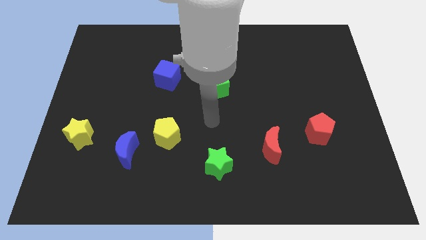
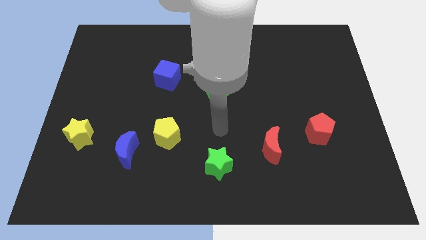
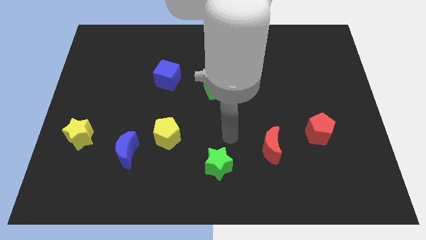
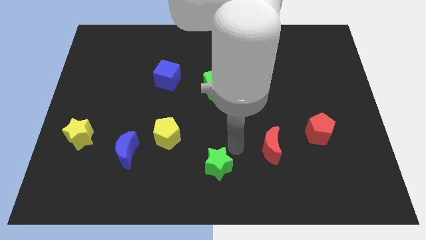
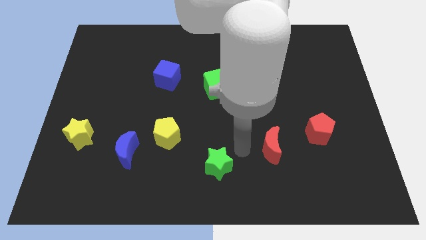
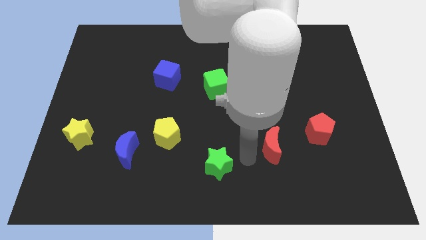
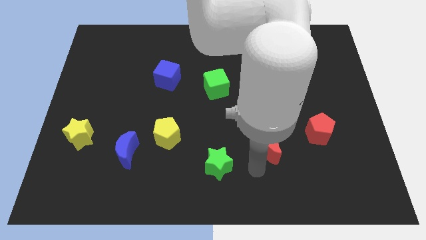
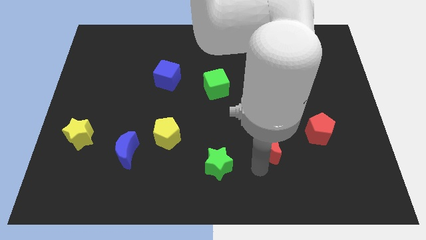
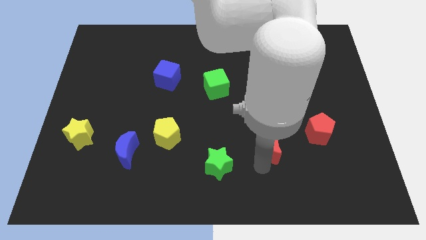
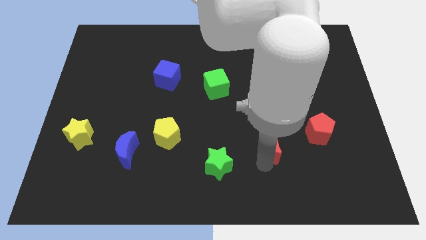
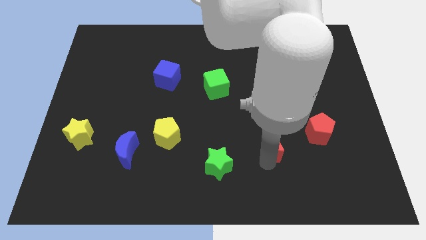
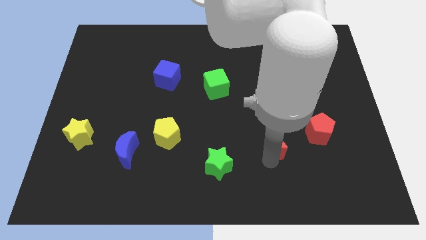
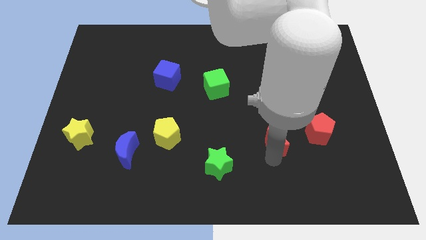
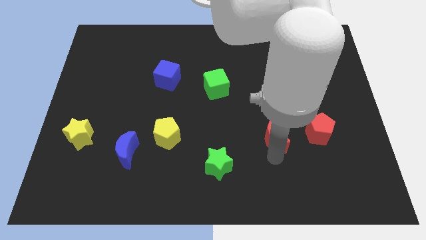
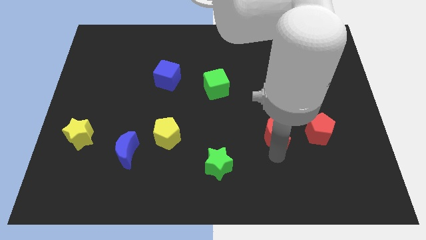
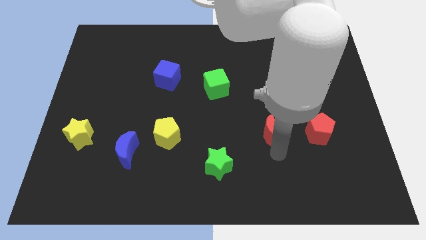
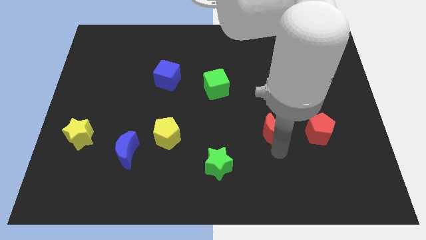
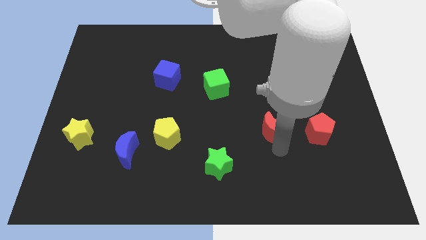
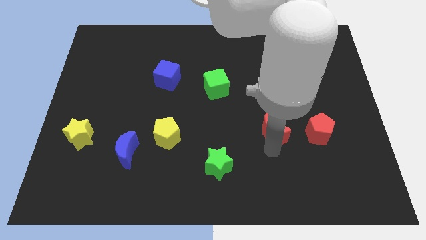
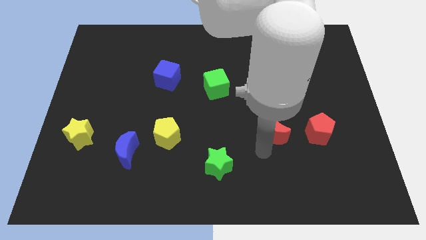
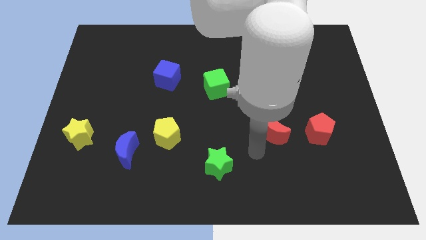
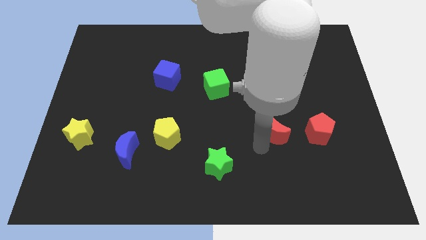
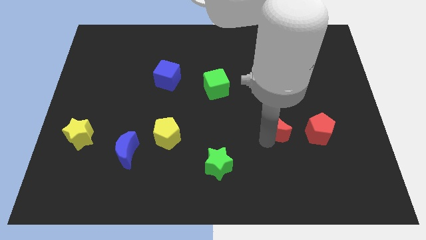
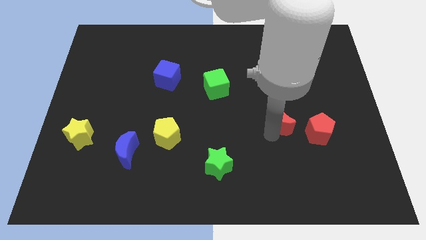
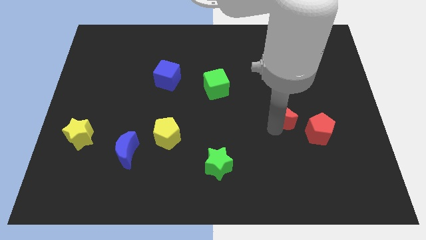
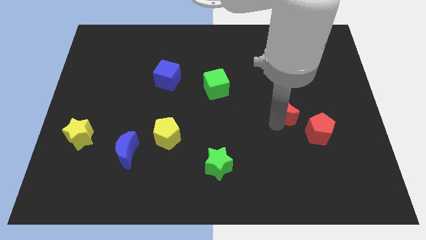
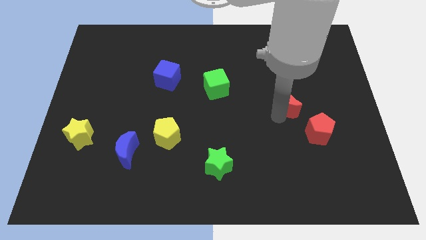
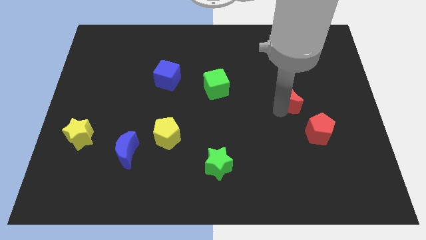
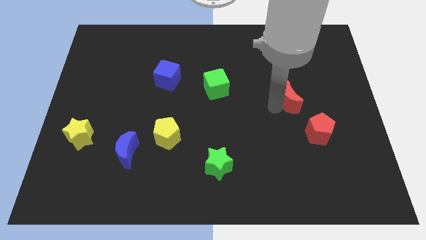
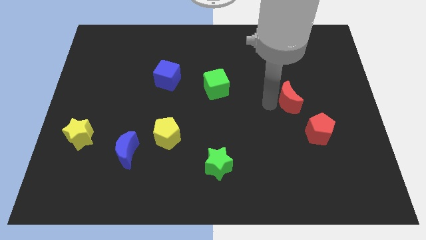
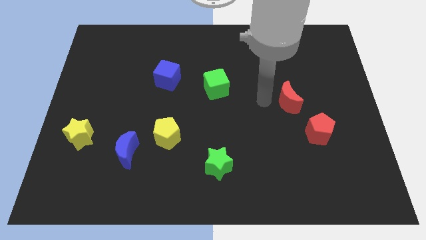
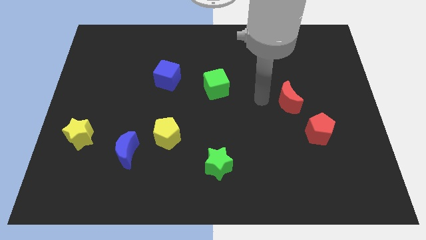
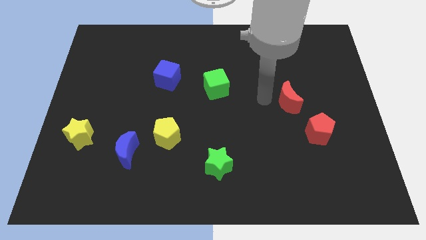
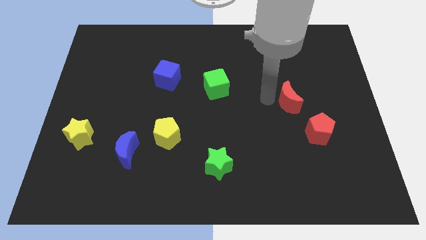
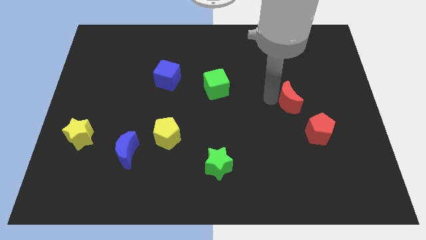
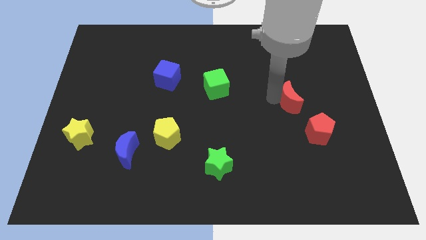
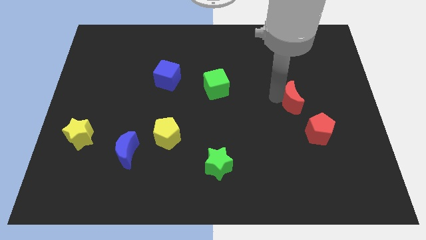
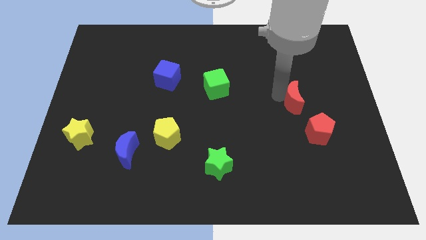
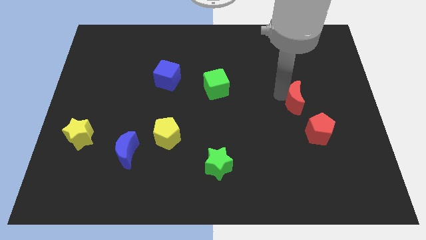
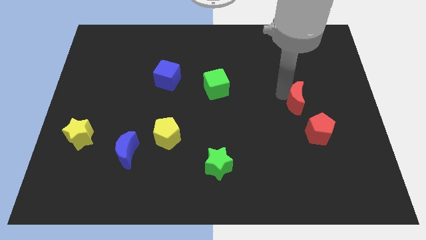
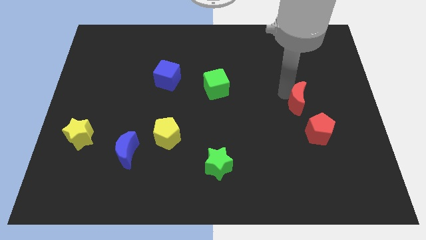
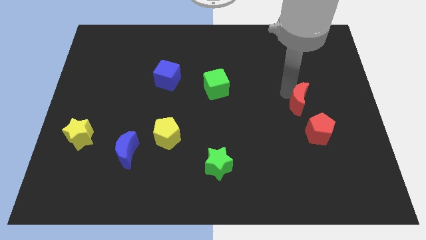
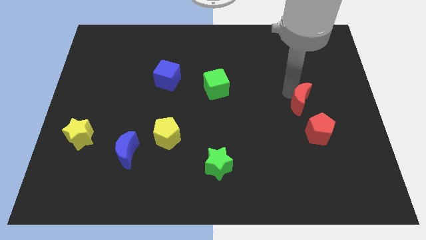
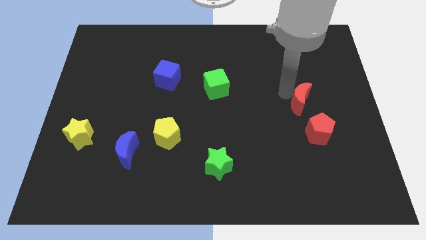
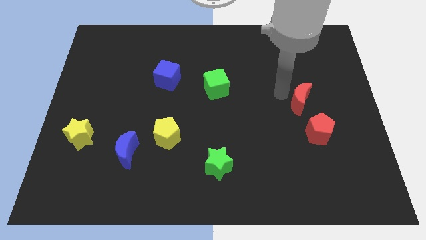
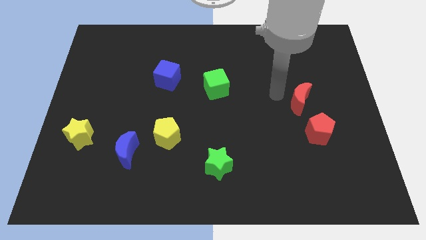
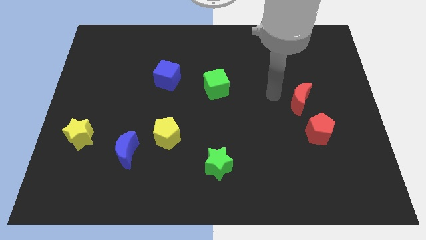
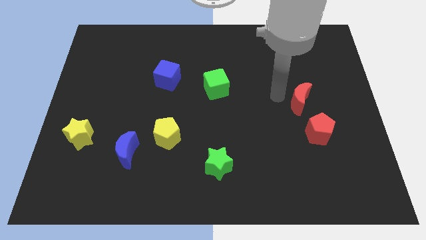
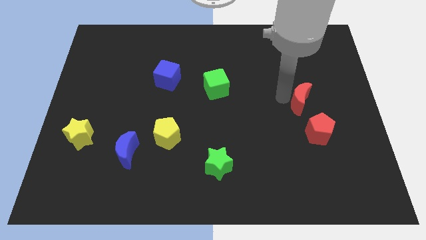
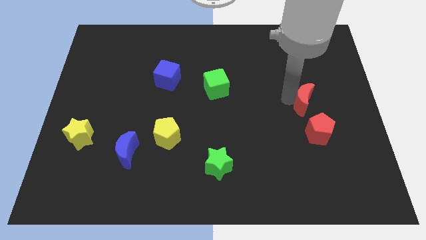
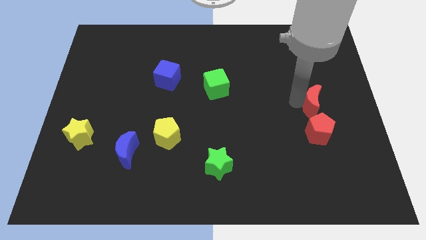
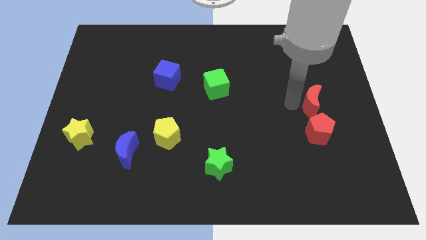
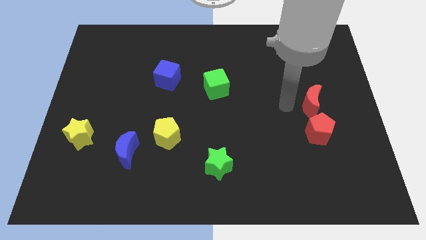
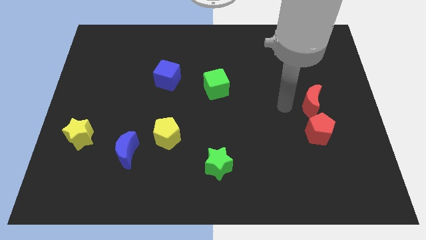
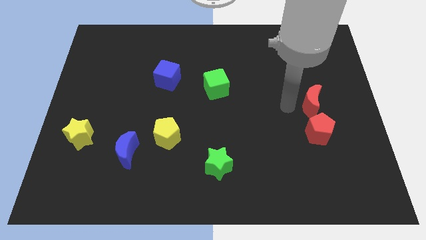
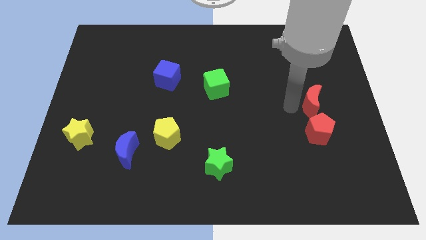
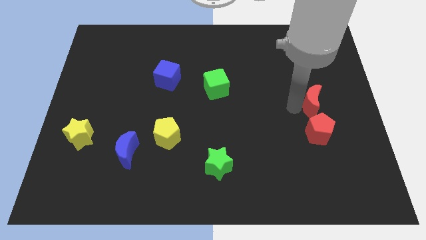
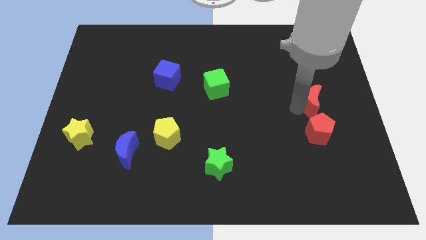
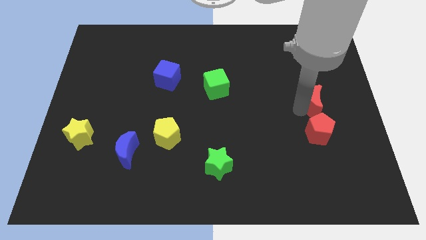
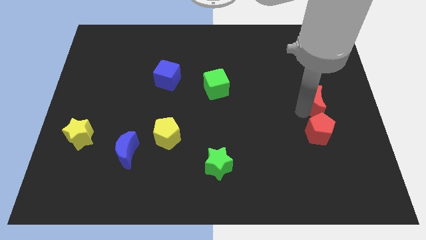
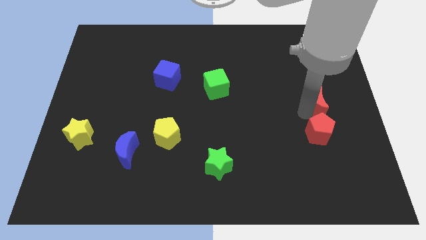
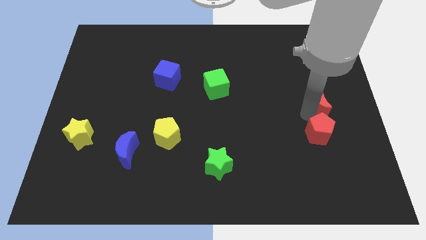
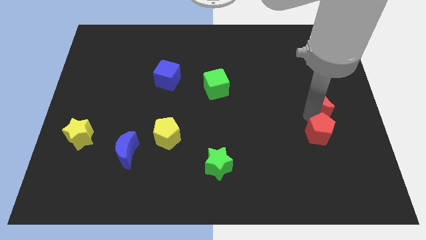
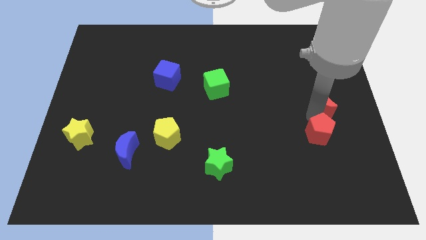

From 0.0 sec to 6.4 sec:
push the red moon to the right side

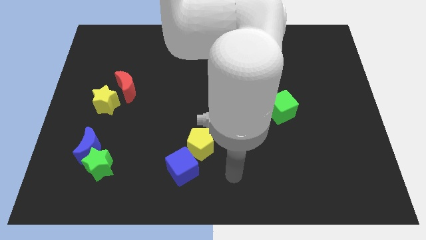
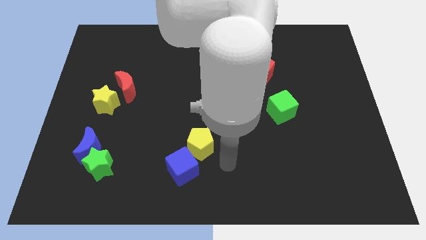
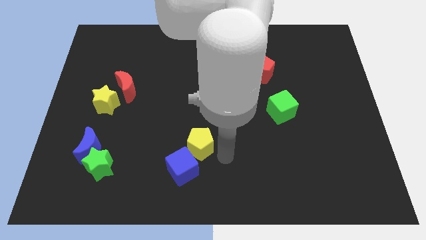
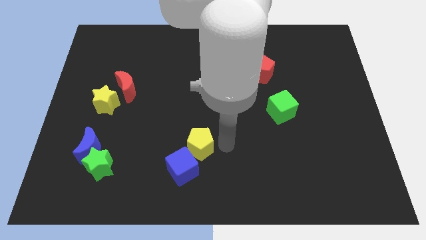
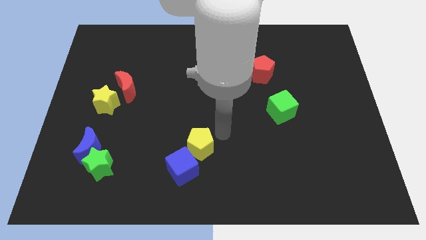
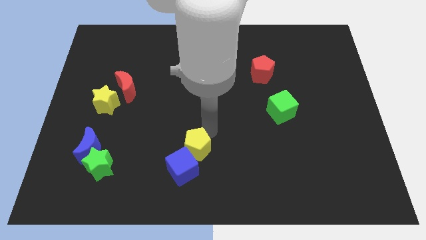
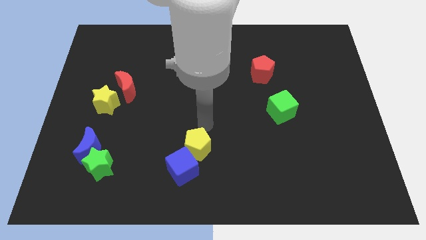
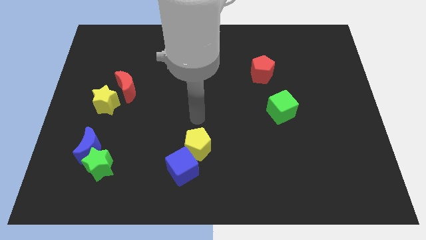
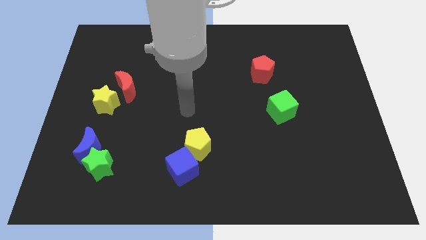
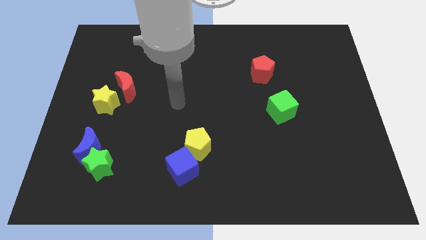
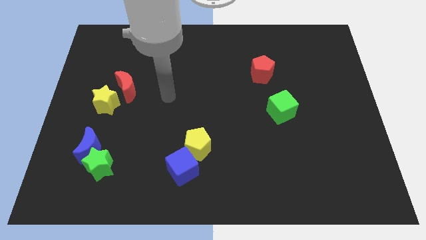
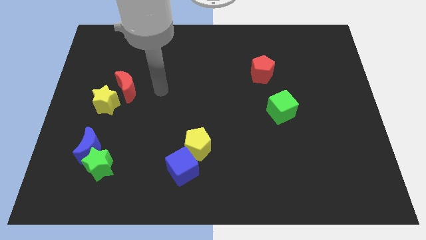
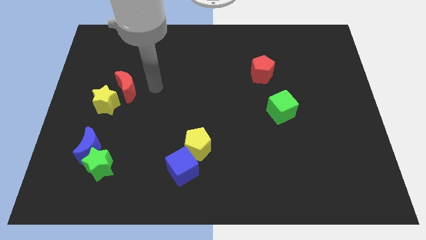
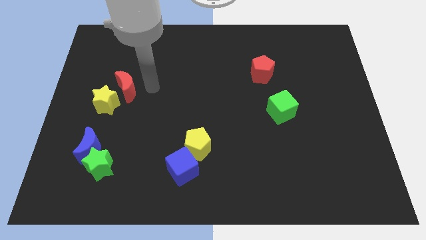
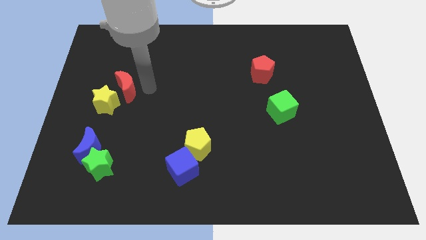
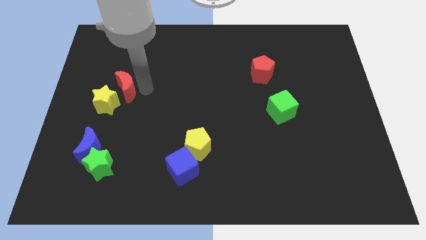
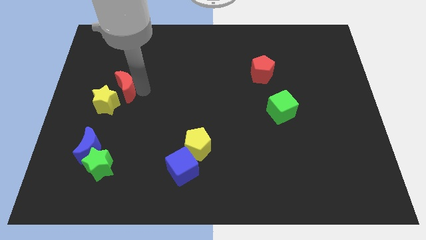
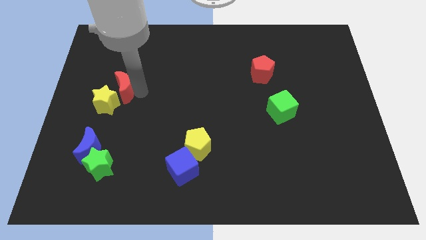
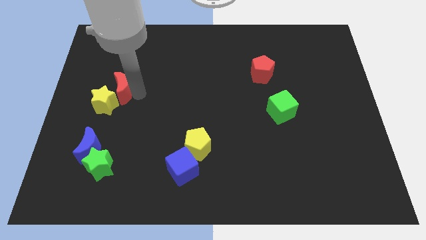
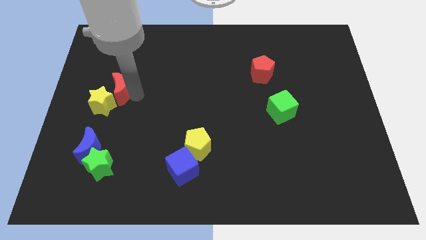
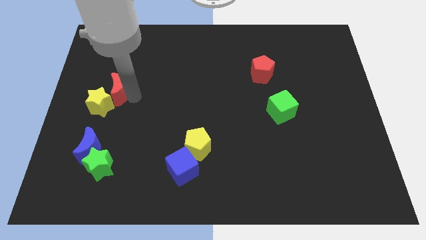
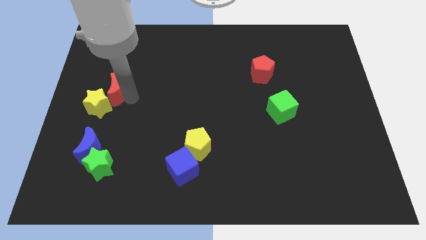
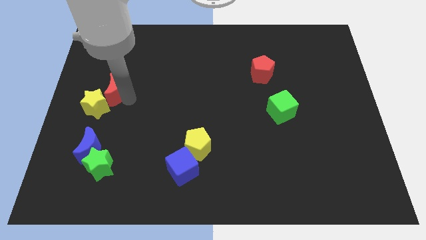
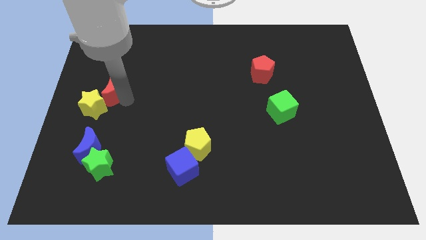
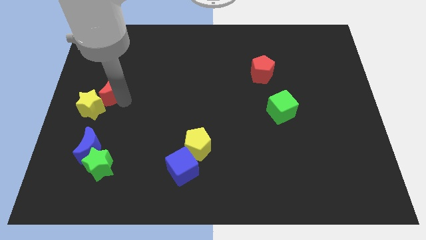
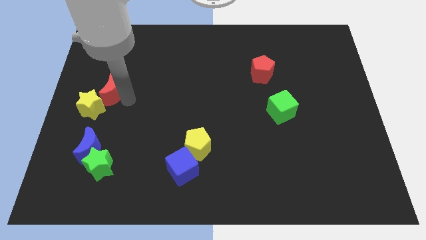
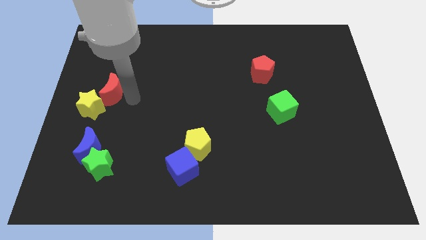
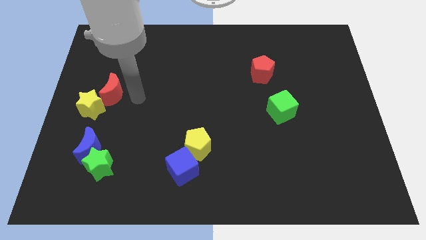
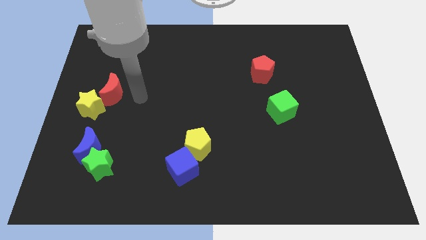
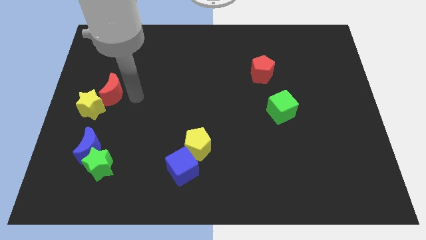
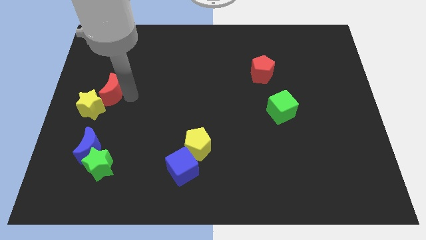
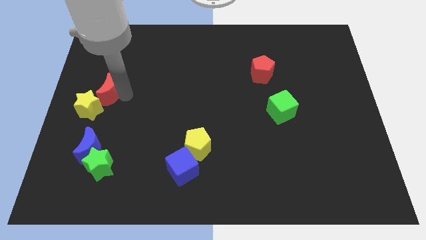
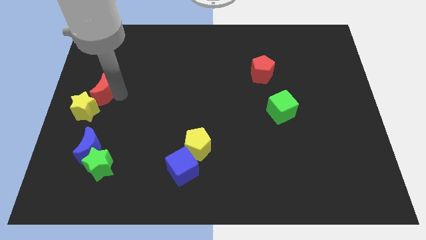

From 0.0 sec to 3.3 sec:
put the red moon to the center left
